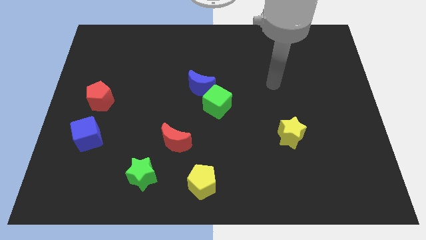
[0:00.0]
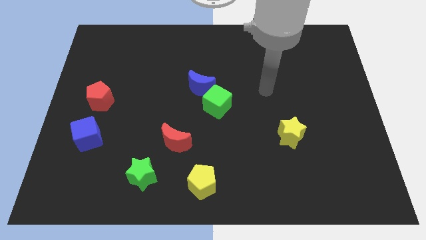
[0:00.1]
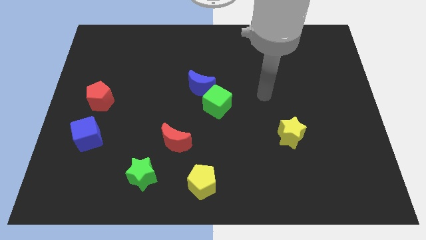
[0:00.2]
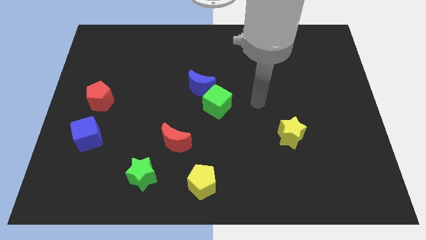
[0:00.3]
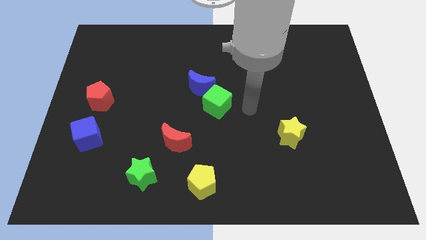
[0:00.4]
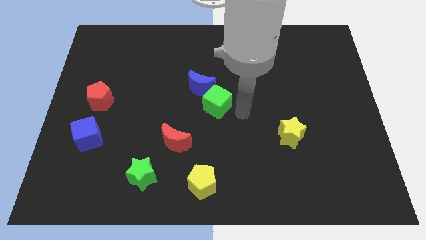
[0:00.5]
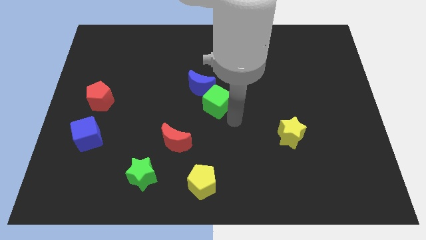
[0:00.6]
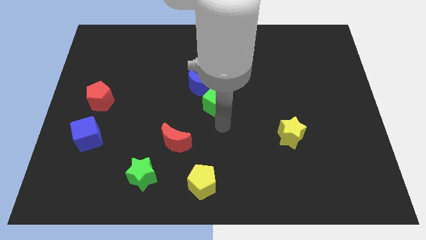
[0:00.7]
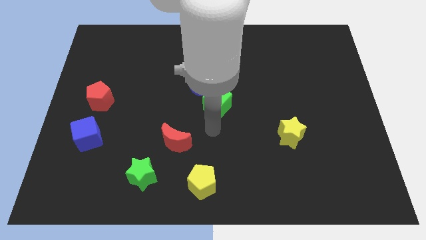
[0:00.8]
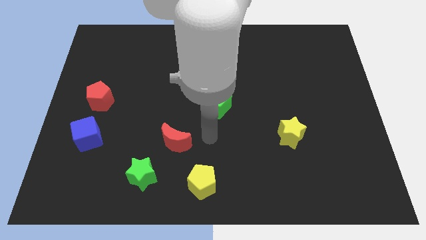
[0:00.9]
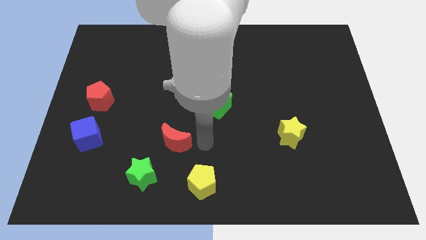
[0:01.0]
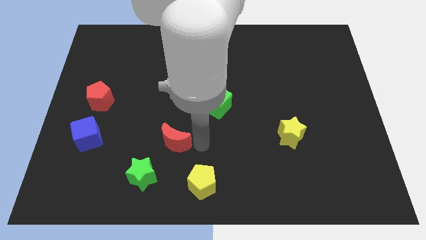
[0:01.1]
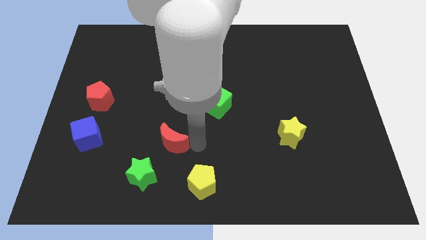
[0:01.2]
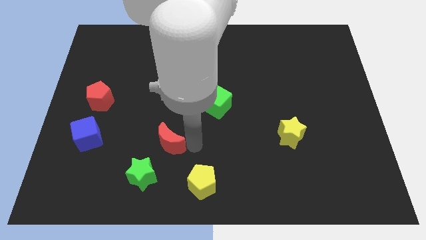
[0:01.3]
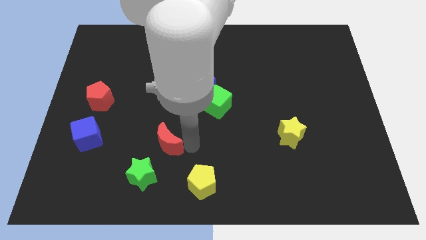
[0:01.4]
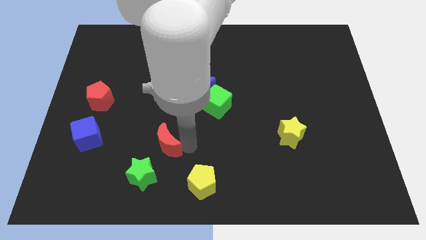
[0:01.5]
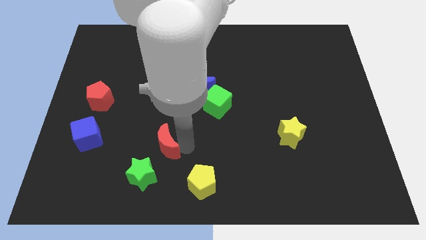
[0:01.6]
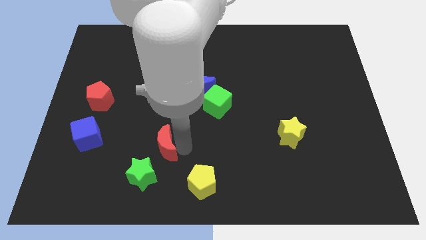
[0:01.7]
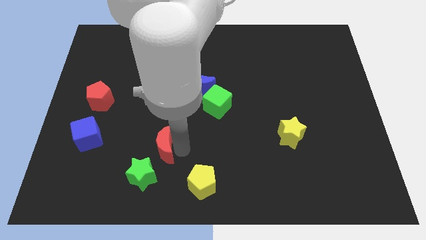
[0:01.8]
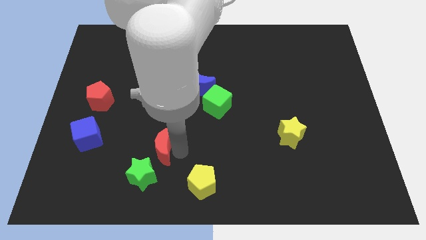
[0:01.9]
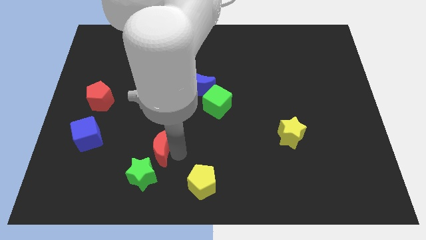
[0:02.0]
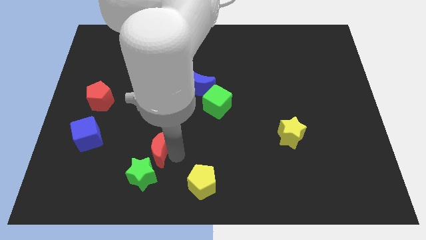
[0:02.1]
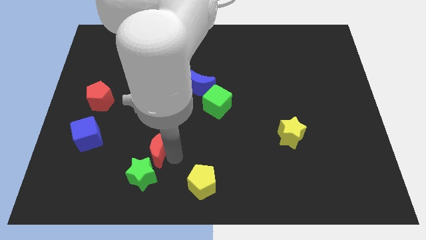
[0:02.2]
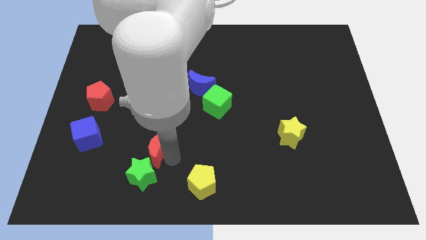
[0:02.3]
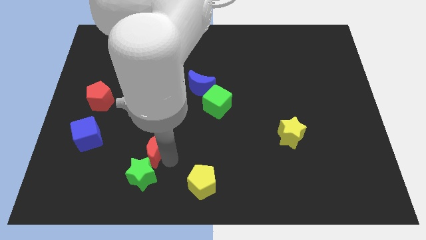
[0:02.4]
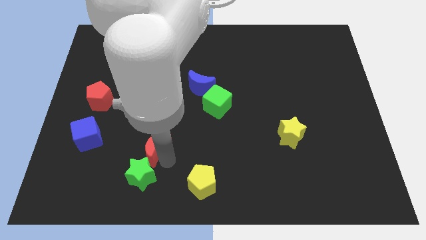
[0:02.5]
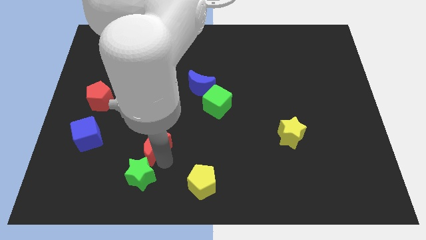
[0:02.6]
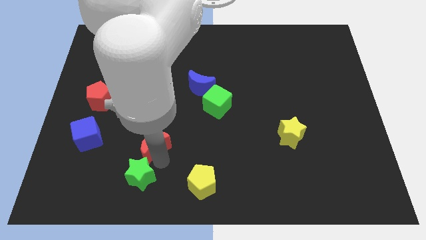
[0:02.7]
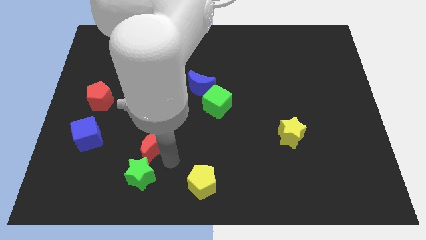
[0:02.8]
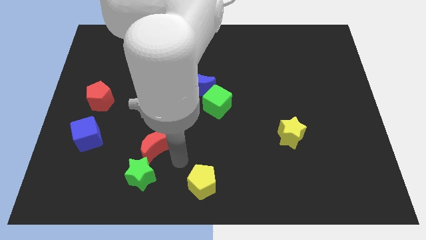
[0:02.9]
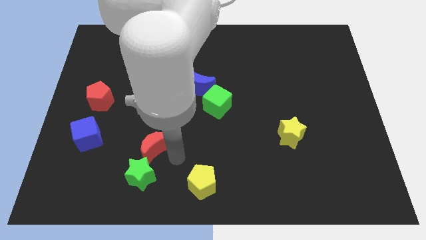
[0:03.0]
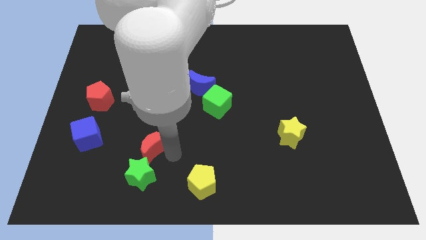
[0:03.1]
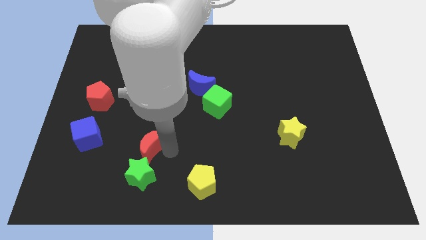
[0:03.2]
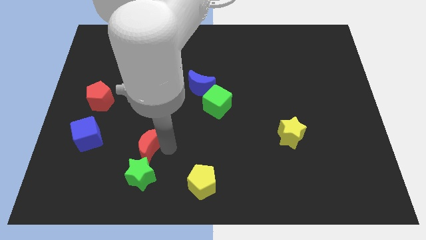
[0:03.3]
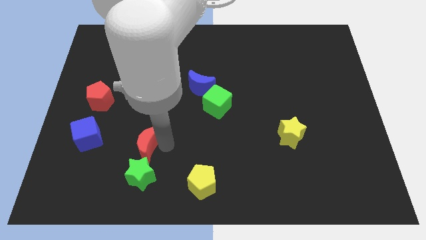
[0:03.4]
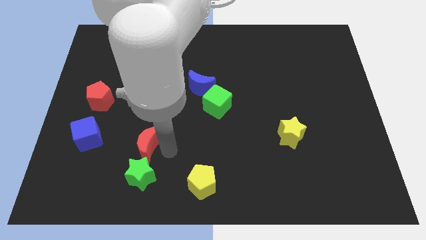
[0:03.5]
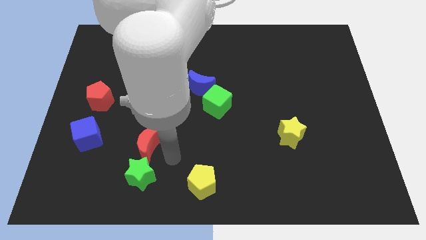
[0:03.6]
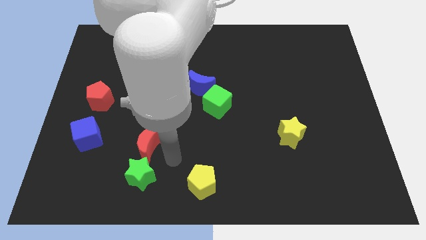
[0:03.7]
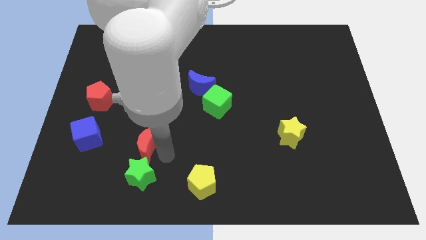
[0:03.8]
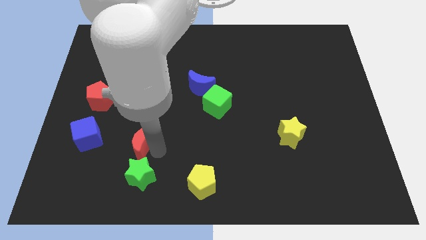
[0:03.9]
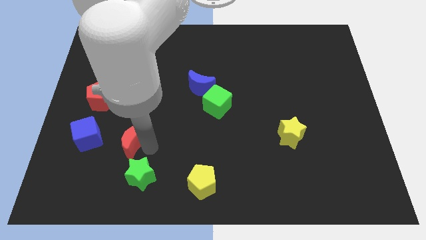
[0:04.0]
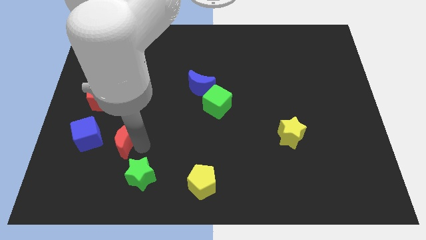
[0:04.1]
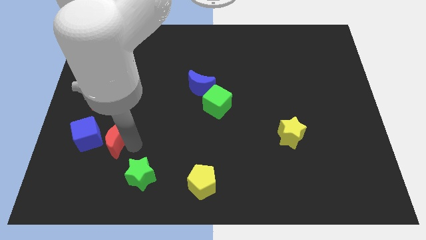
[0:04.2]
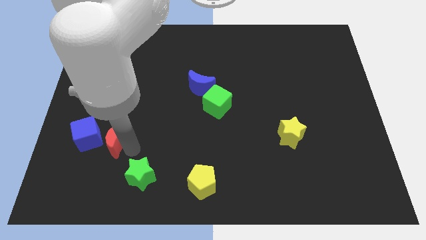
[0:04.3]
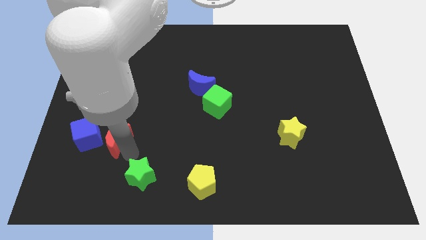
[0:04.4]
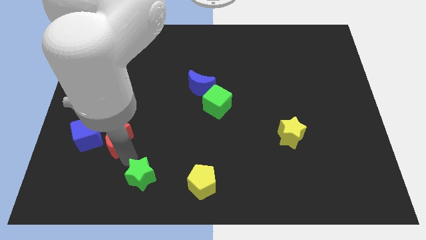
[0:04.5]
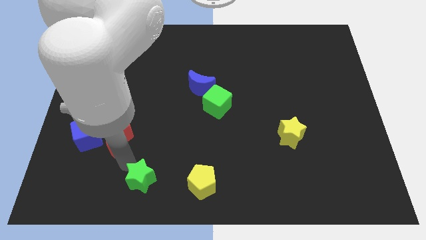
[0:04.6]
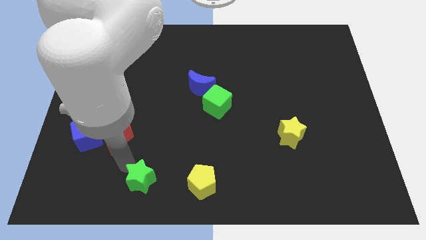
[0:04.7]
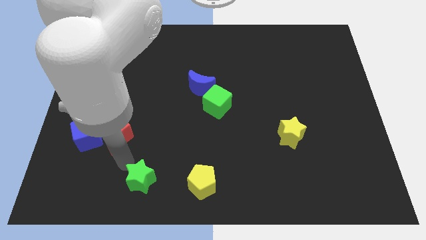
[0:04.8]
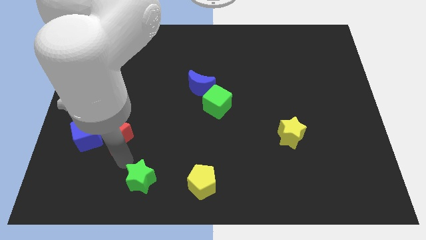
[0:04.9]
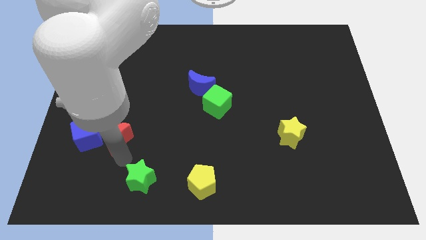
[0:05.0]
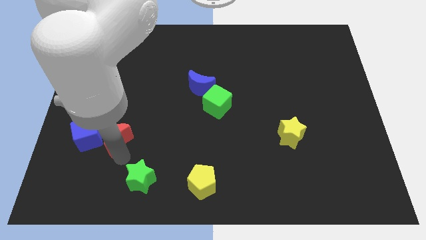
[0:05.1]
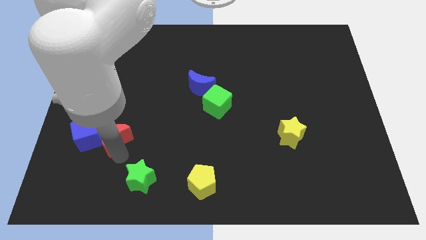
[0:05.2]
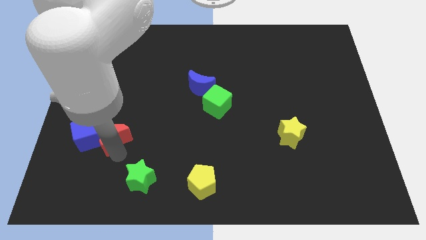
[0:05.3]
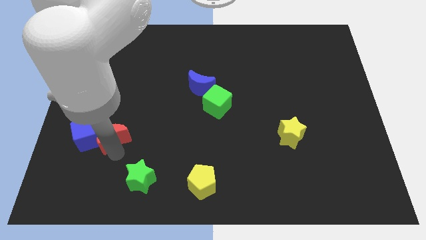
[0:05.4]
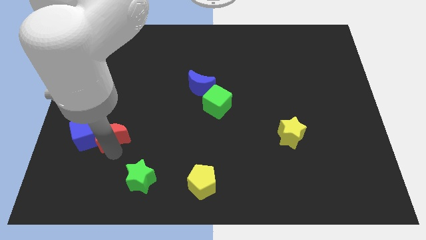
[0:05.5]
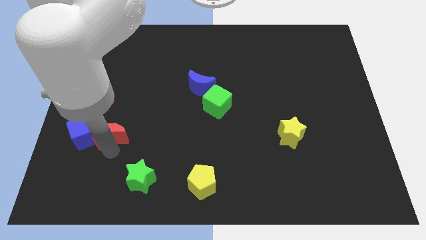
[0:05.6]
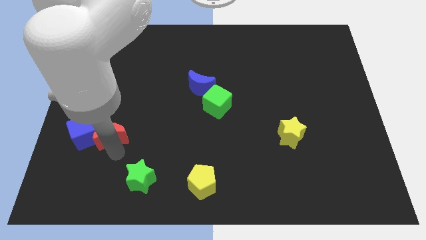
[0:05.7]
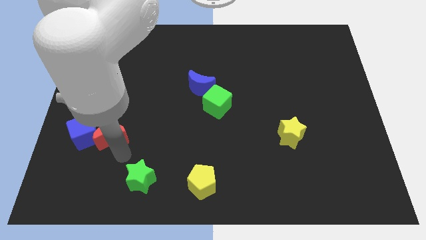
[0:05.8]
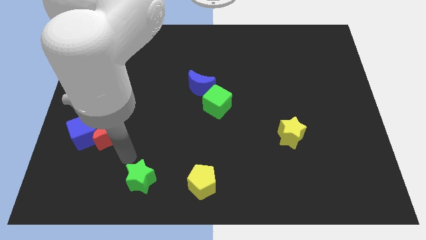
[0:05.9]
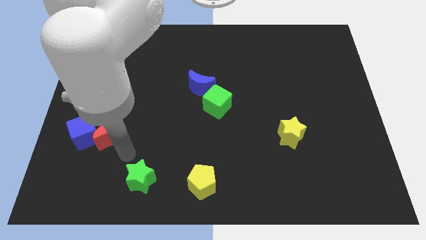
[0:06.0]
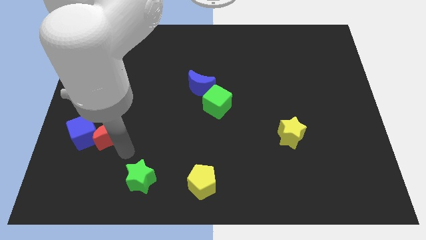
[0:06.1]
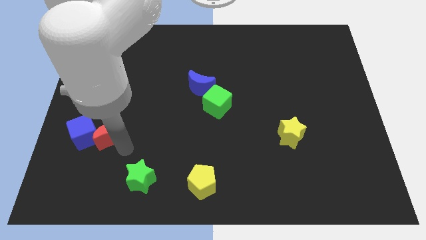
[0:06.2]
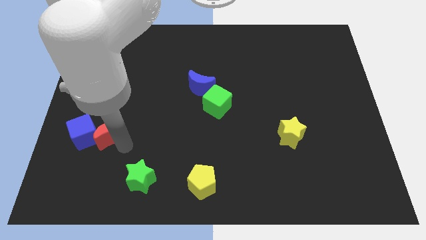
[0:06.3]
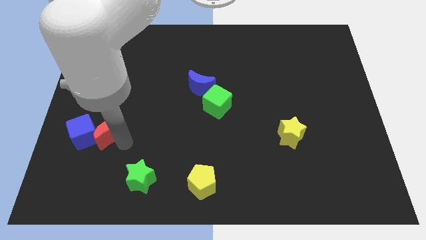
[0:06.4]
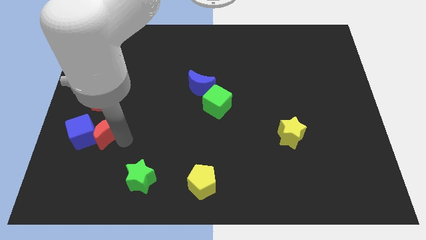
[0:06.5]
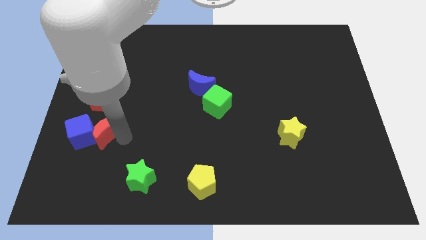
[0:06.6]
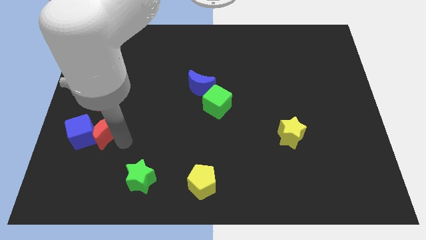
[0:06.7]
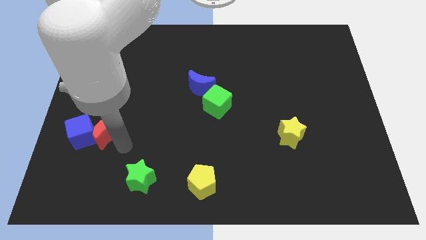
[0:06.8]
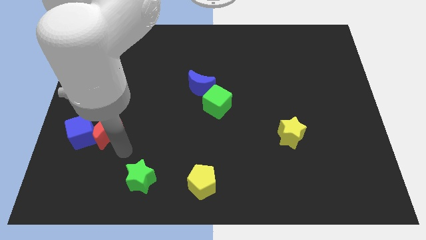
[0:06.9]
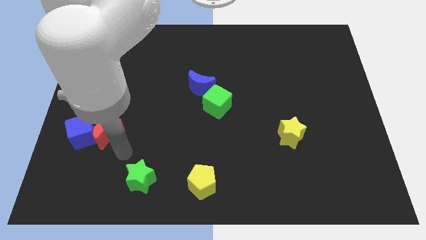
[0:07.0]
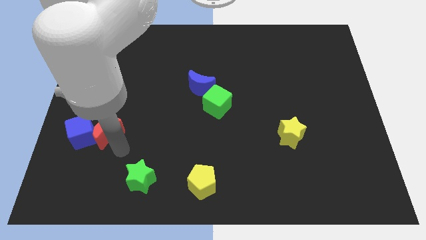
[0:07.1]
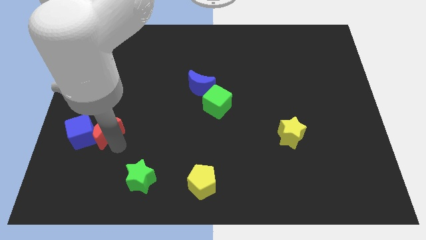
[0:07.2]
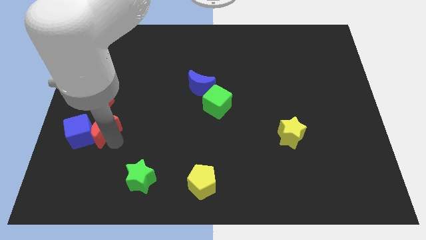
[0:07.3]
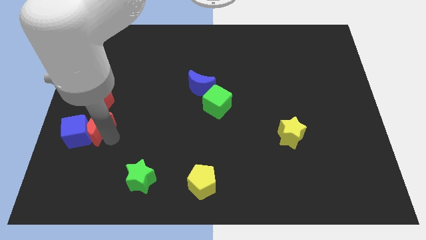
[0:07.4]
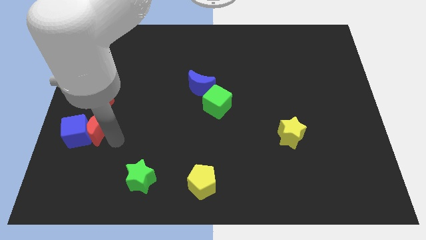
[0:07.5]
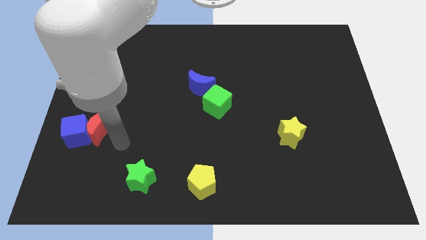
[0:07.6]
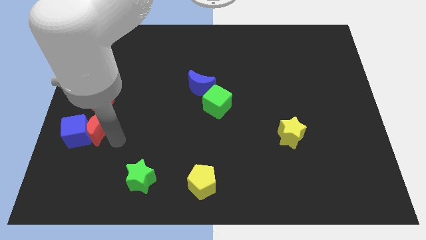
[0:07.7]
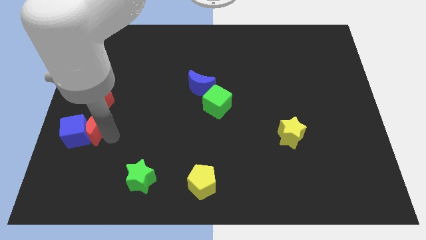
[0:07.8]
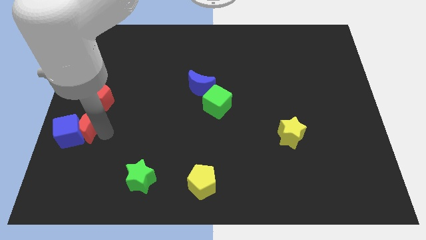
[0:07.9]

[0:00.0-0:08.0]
push the red moon to the left side of the board
